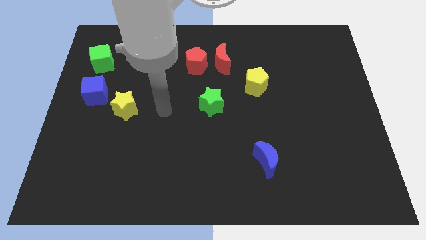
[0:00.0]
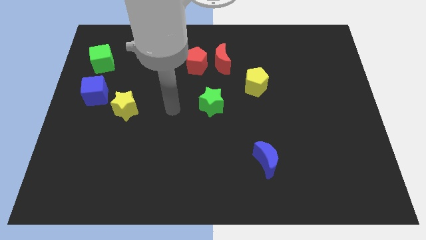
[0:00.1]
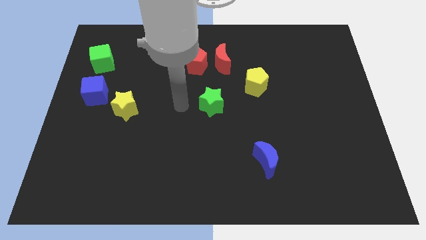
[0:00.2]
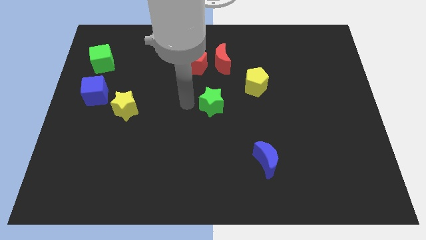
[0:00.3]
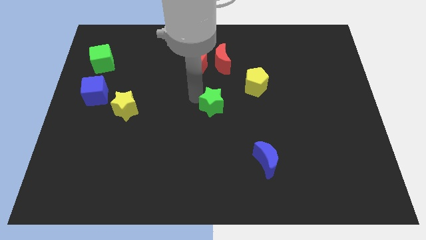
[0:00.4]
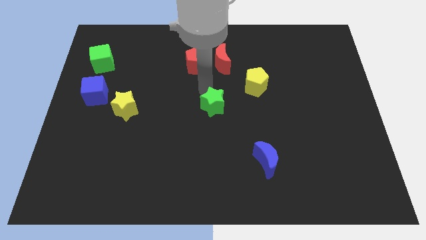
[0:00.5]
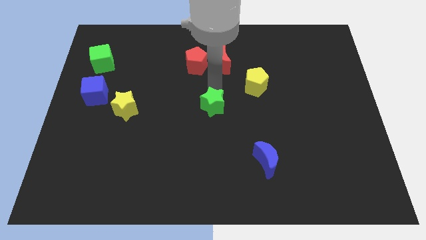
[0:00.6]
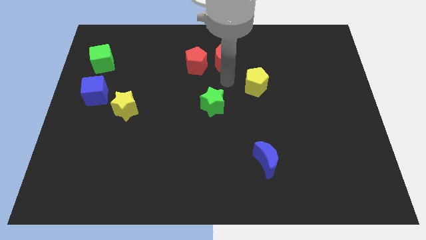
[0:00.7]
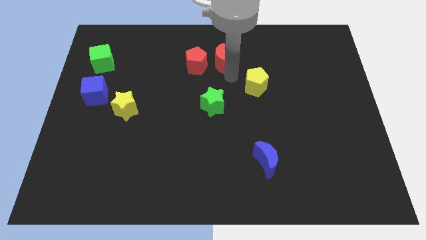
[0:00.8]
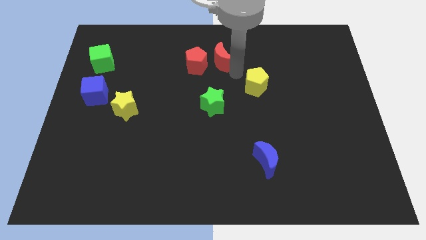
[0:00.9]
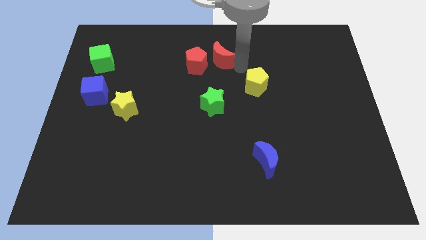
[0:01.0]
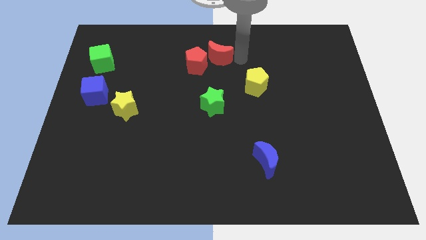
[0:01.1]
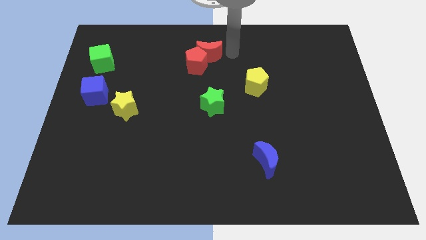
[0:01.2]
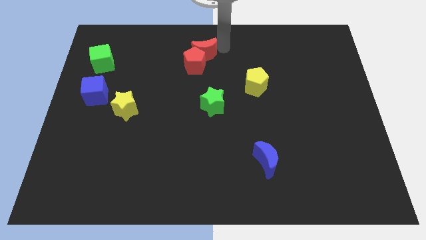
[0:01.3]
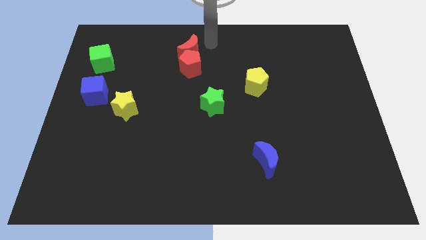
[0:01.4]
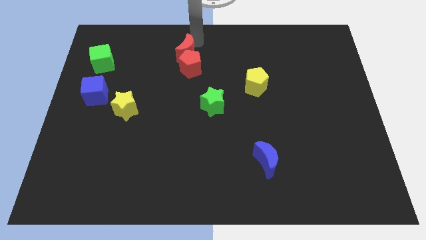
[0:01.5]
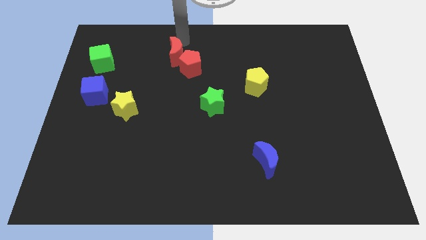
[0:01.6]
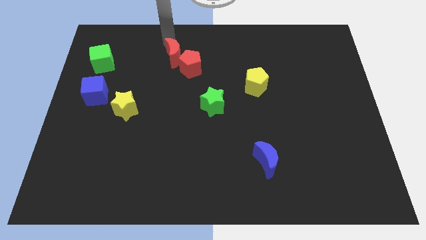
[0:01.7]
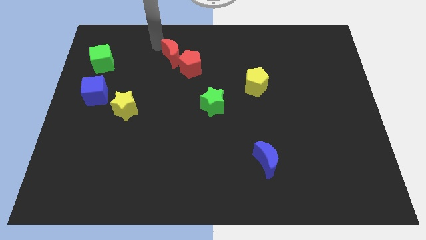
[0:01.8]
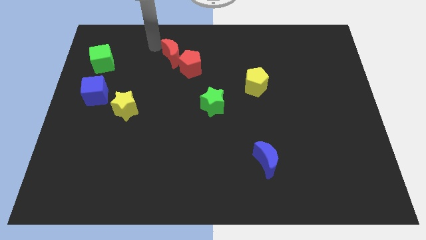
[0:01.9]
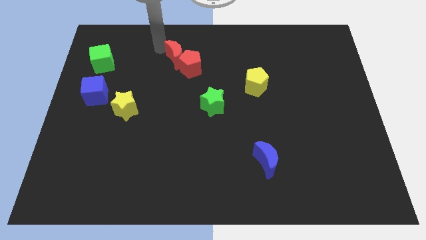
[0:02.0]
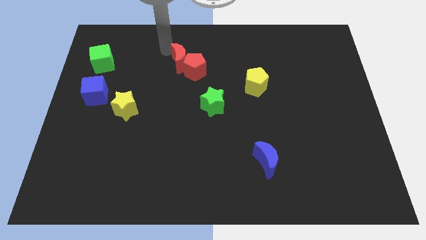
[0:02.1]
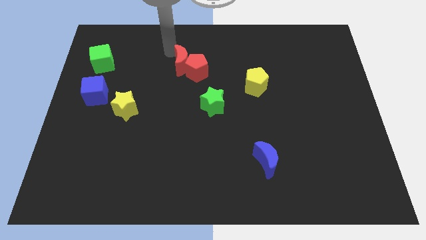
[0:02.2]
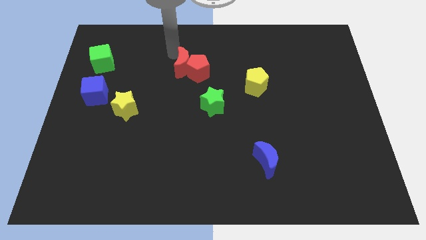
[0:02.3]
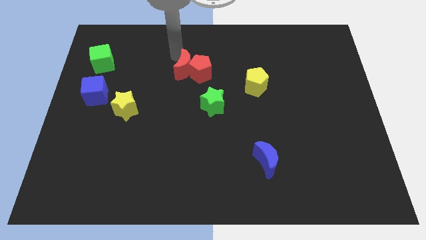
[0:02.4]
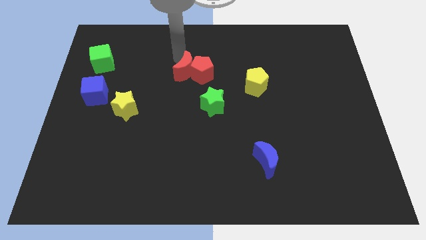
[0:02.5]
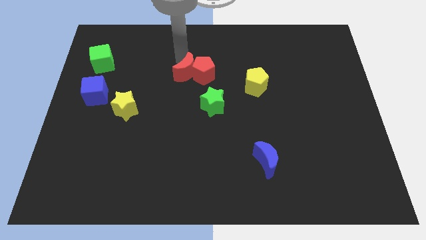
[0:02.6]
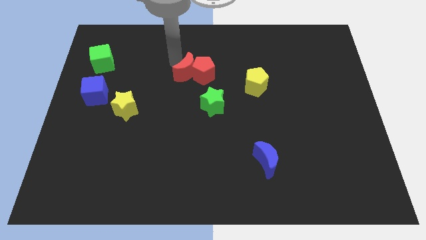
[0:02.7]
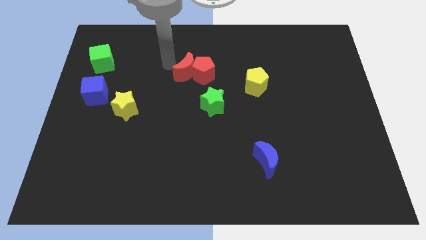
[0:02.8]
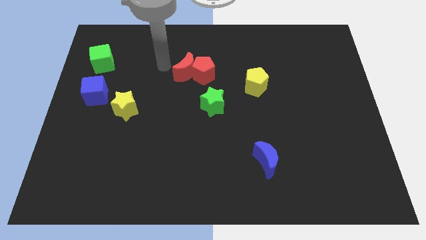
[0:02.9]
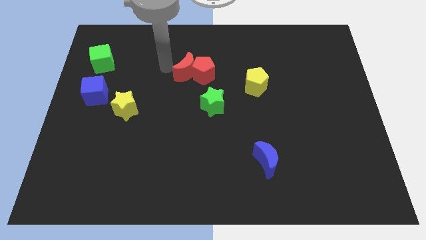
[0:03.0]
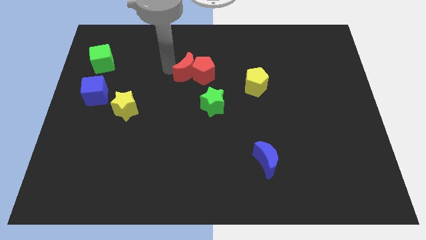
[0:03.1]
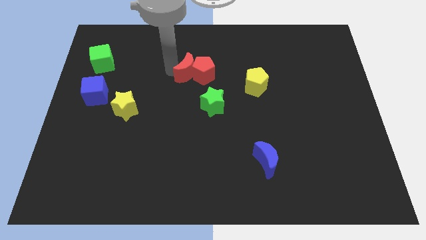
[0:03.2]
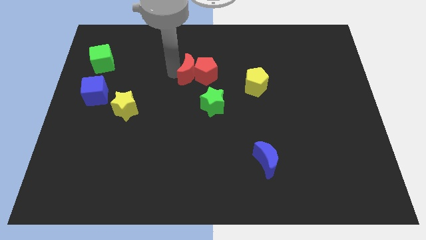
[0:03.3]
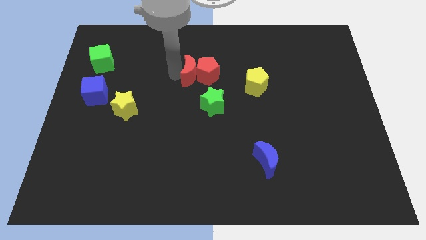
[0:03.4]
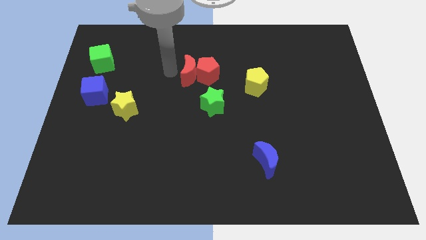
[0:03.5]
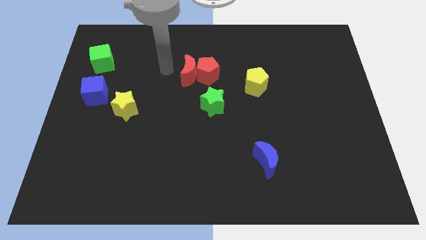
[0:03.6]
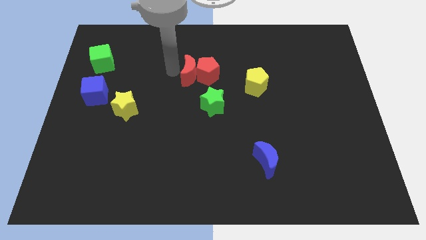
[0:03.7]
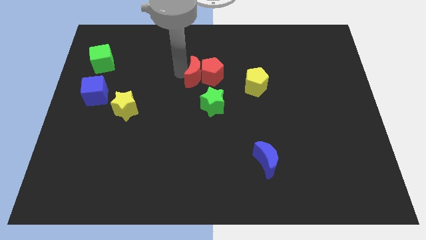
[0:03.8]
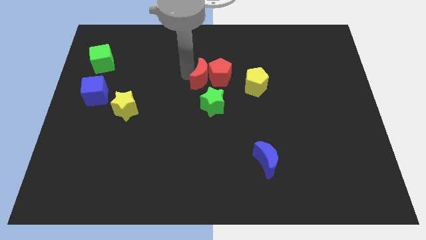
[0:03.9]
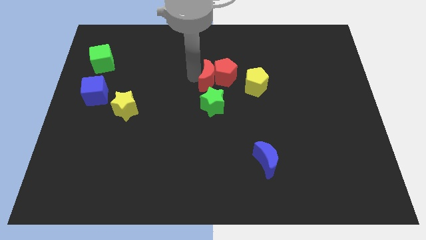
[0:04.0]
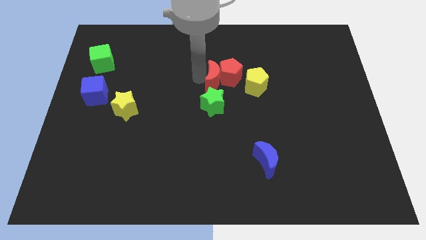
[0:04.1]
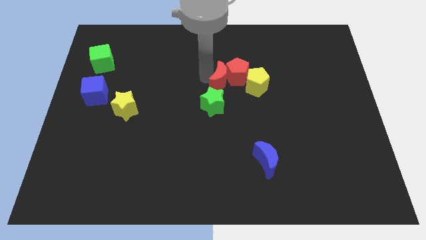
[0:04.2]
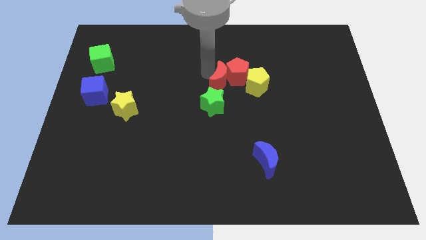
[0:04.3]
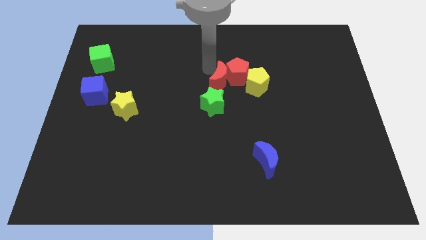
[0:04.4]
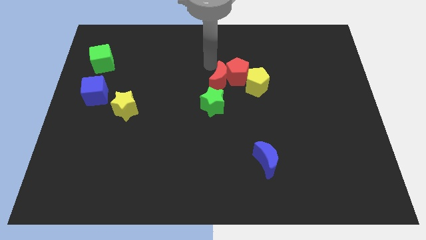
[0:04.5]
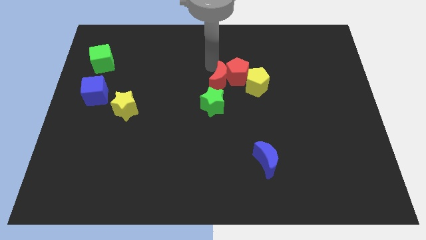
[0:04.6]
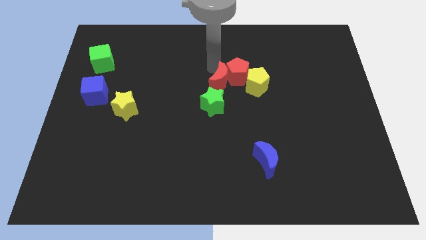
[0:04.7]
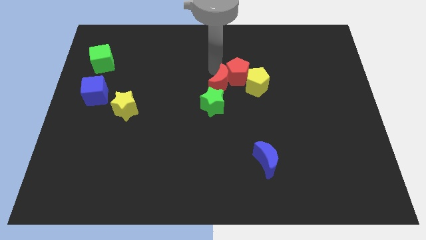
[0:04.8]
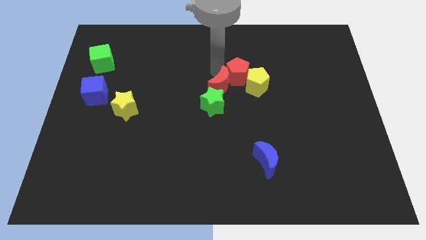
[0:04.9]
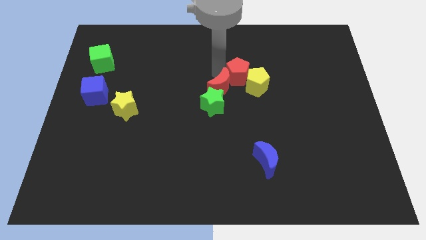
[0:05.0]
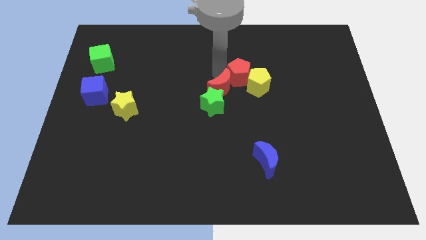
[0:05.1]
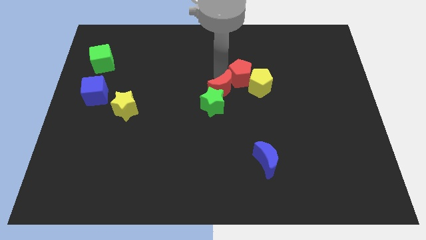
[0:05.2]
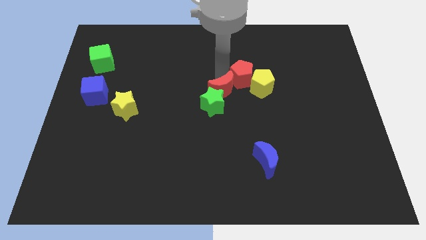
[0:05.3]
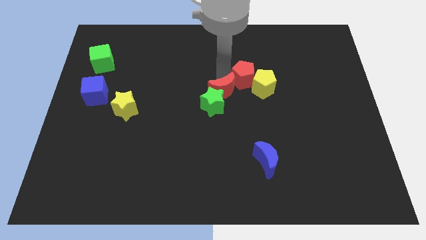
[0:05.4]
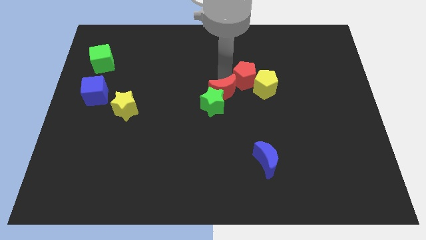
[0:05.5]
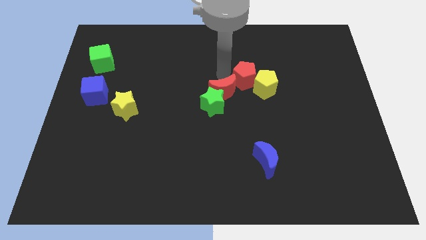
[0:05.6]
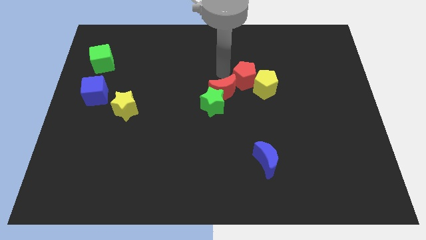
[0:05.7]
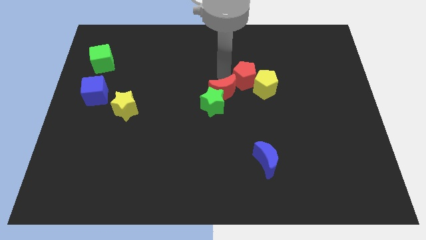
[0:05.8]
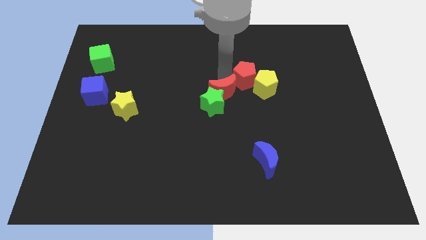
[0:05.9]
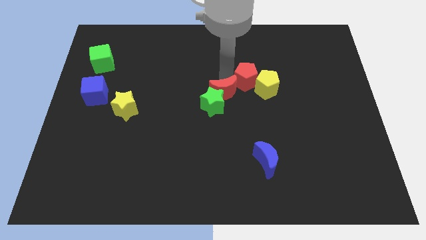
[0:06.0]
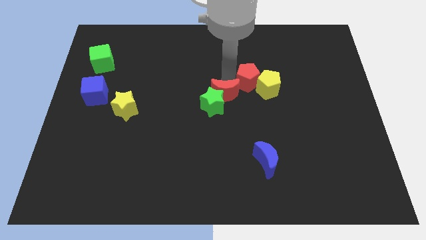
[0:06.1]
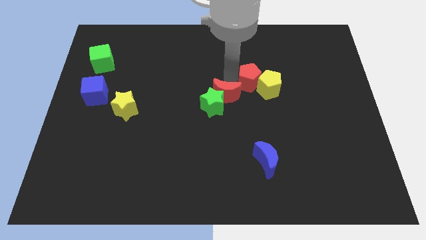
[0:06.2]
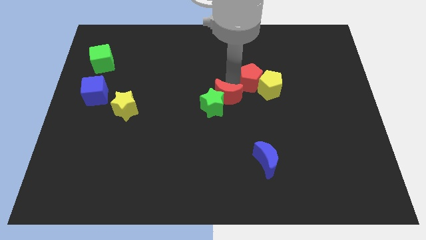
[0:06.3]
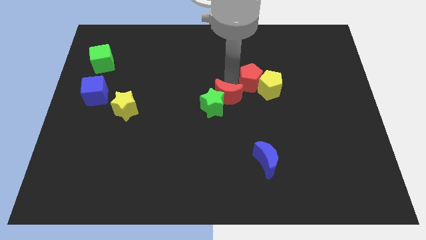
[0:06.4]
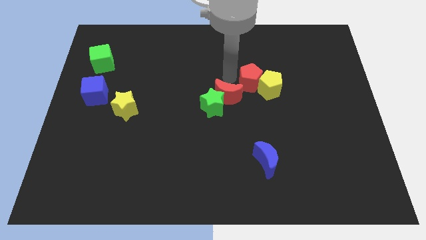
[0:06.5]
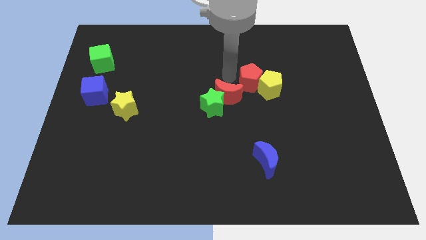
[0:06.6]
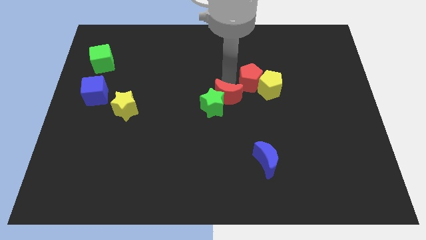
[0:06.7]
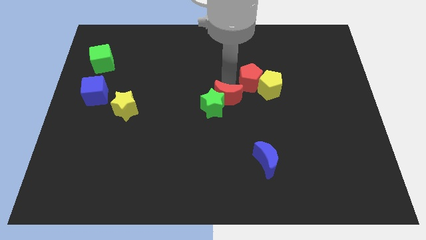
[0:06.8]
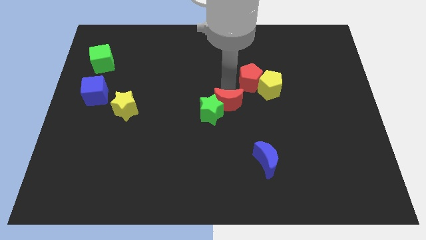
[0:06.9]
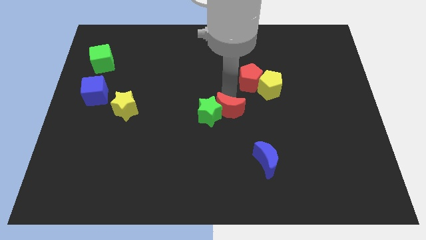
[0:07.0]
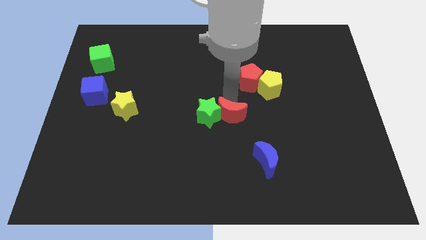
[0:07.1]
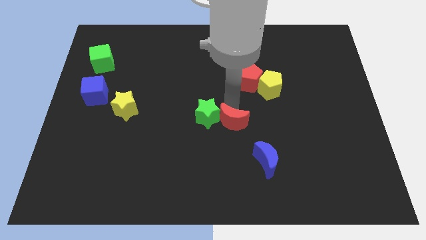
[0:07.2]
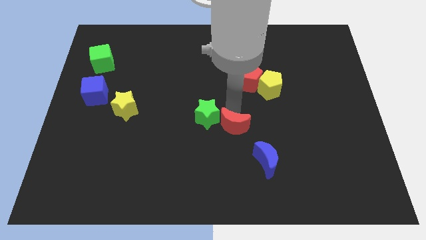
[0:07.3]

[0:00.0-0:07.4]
move the red moon downwards

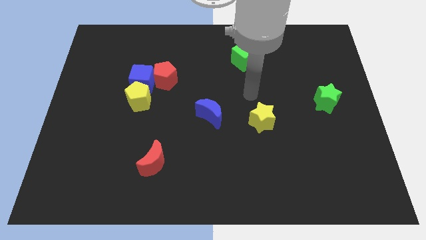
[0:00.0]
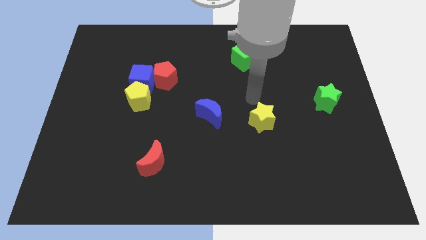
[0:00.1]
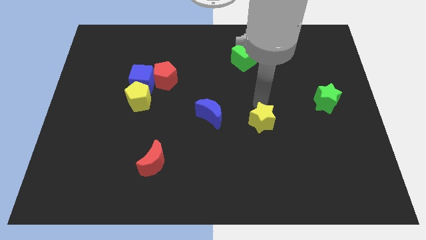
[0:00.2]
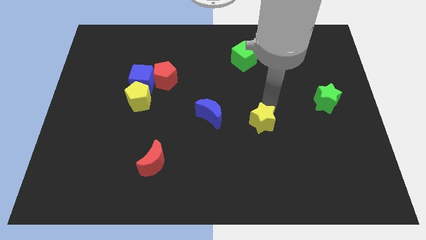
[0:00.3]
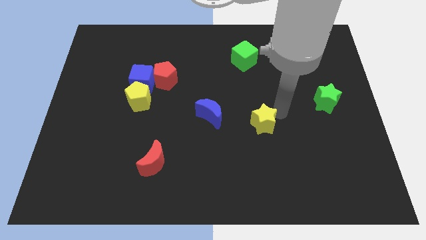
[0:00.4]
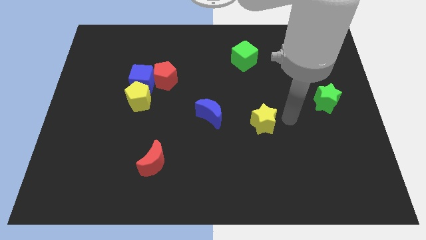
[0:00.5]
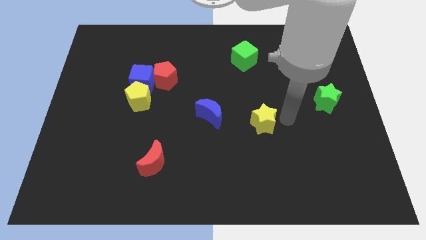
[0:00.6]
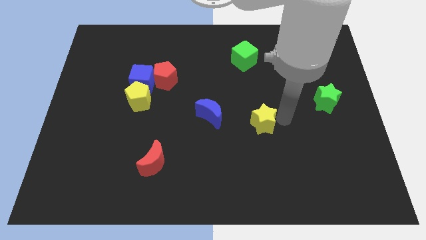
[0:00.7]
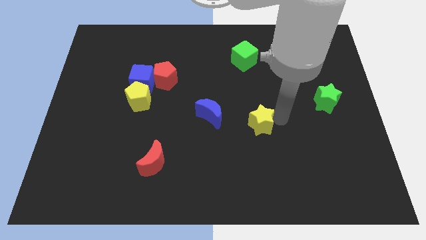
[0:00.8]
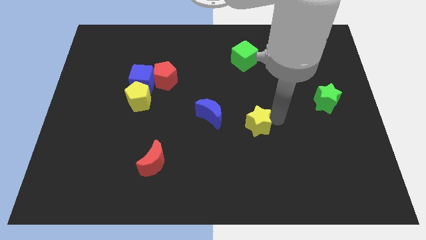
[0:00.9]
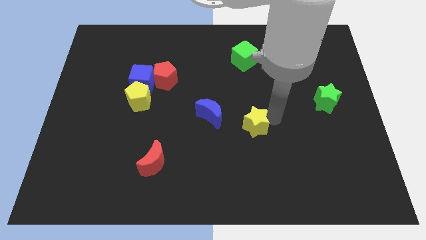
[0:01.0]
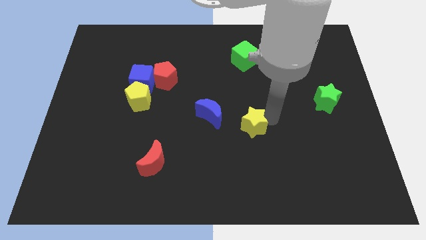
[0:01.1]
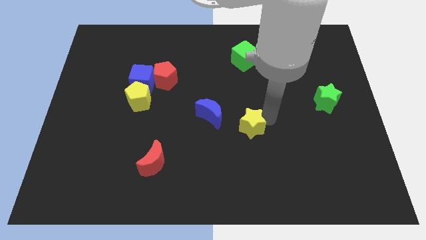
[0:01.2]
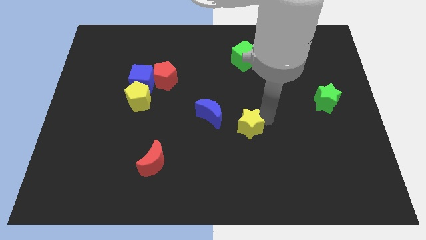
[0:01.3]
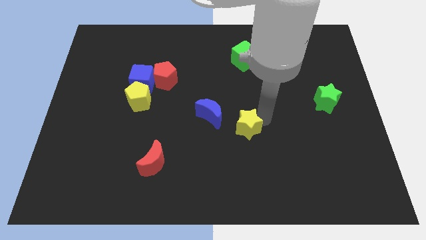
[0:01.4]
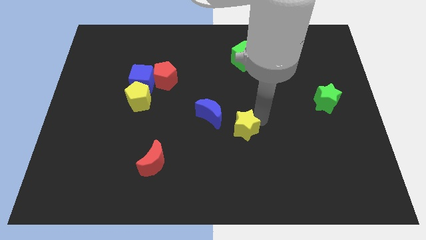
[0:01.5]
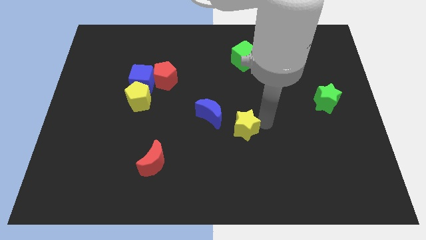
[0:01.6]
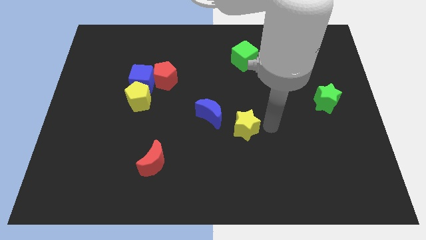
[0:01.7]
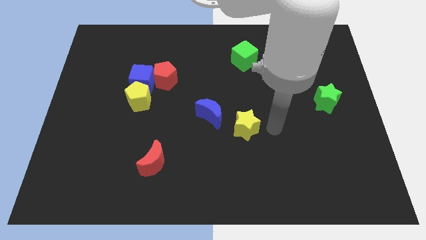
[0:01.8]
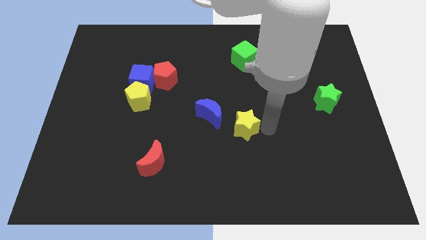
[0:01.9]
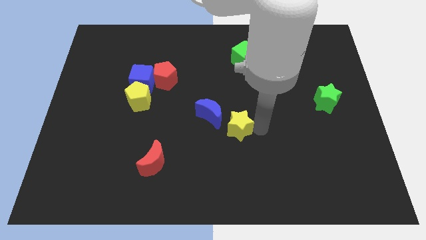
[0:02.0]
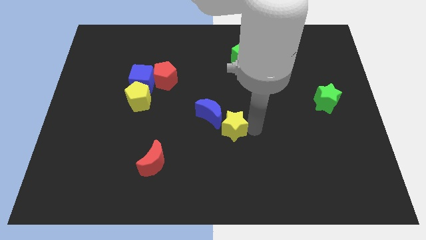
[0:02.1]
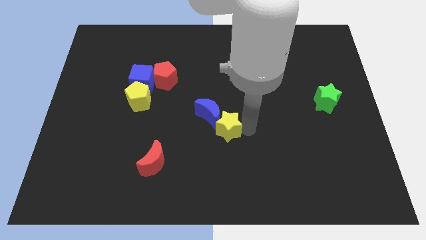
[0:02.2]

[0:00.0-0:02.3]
move the yellow star a little to the left
